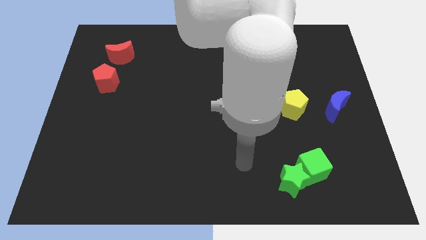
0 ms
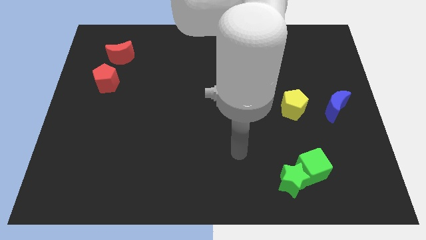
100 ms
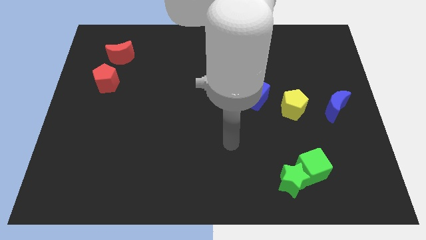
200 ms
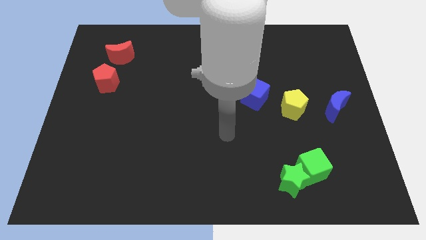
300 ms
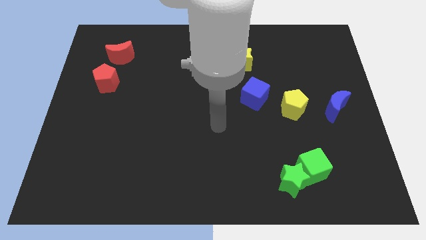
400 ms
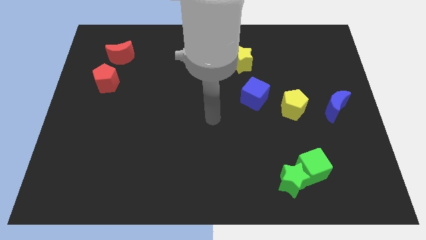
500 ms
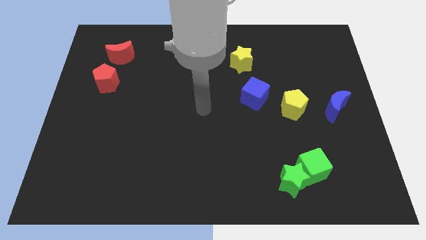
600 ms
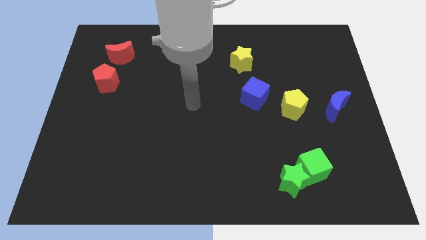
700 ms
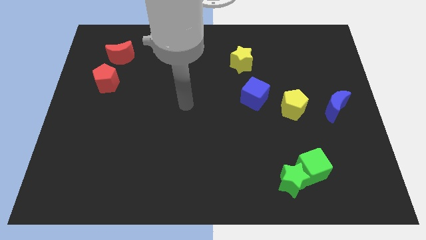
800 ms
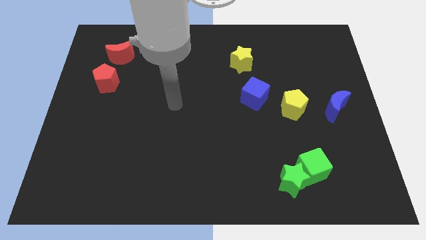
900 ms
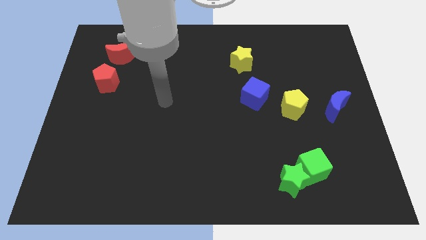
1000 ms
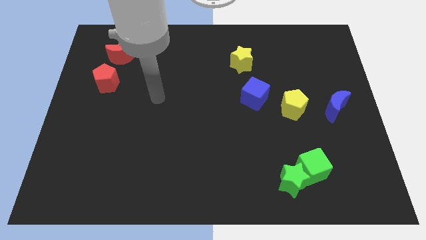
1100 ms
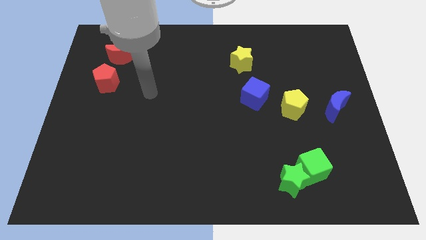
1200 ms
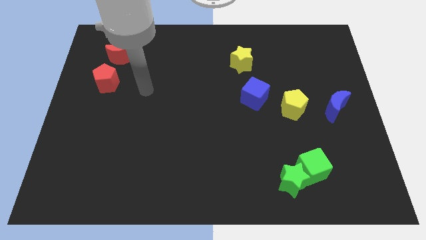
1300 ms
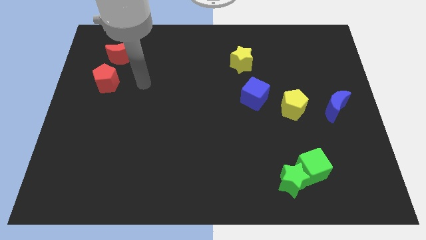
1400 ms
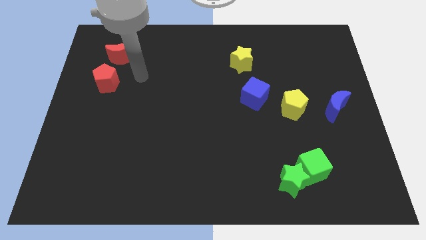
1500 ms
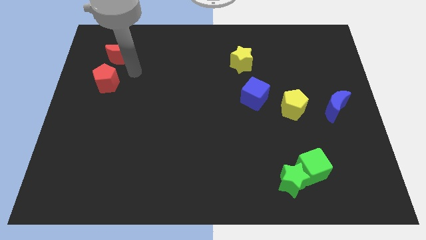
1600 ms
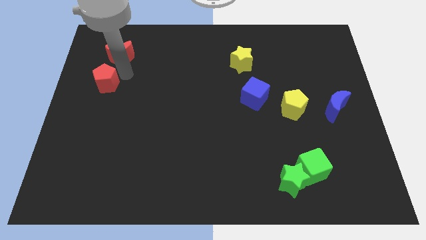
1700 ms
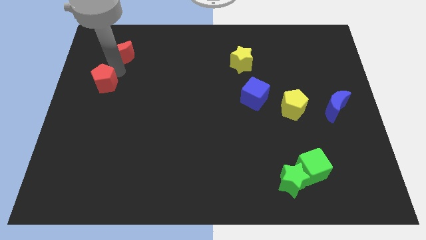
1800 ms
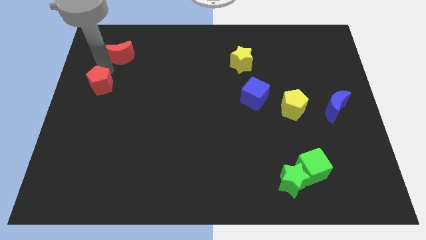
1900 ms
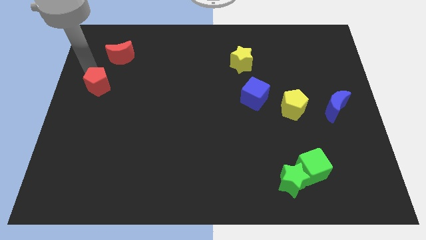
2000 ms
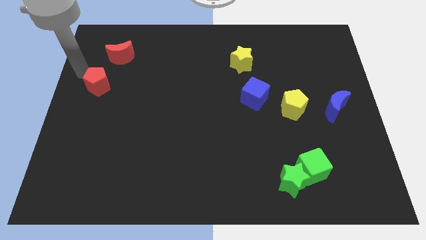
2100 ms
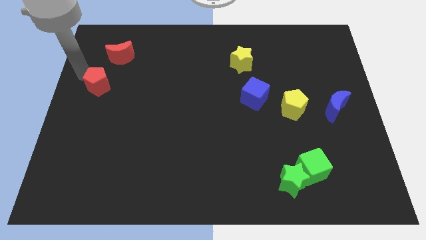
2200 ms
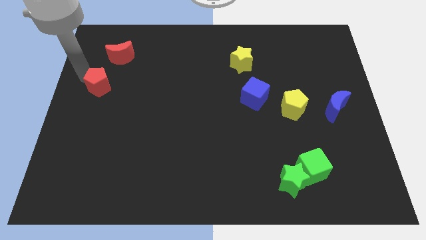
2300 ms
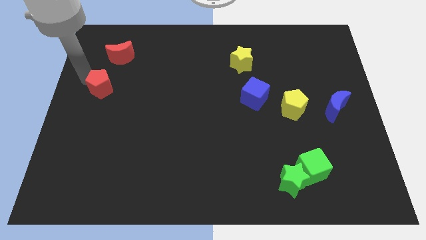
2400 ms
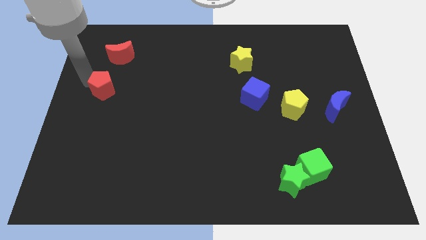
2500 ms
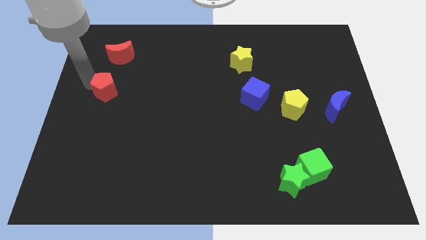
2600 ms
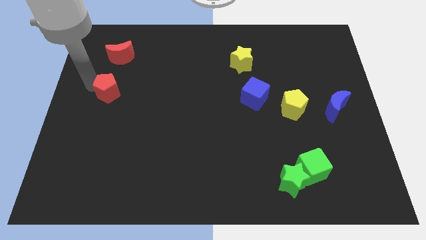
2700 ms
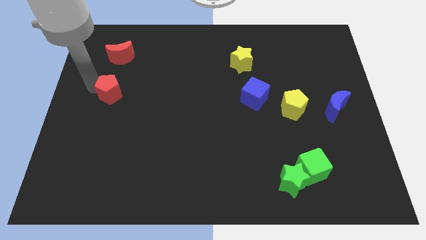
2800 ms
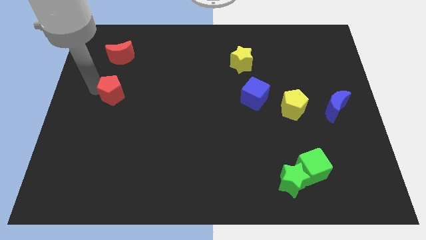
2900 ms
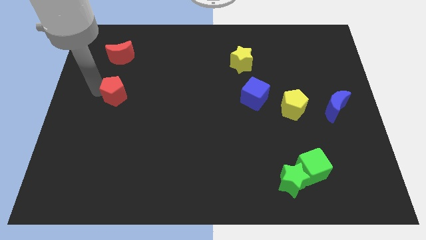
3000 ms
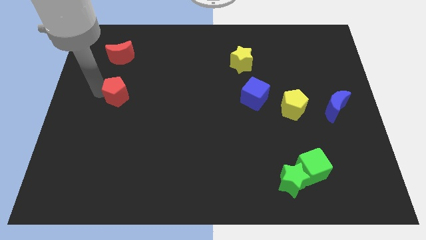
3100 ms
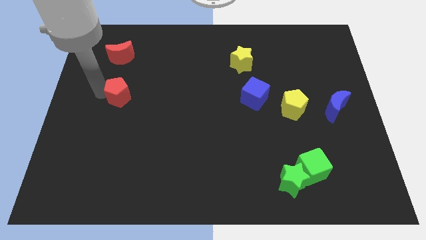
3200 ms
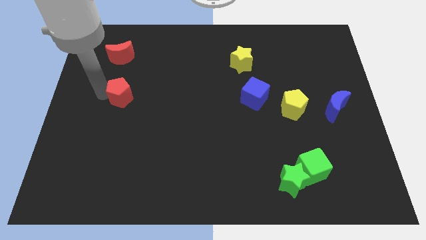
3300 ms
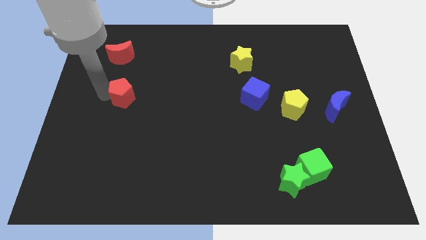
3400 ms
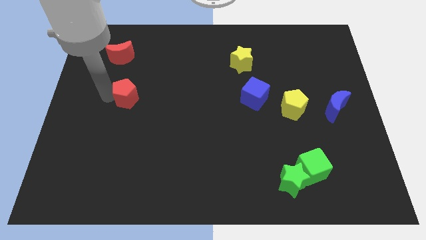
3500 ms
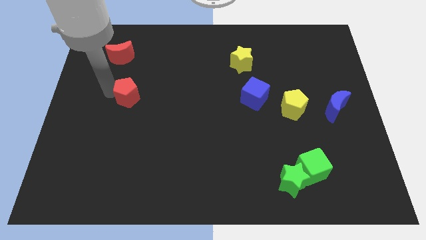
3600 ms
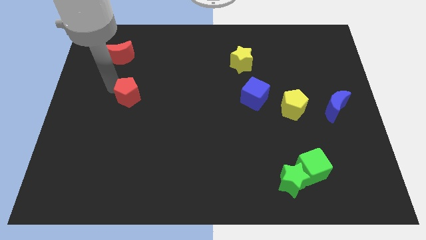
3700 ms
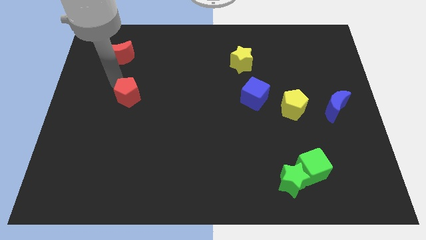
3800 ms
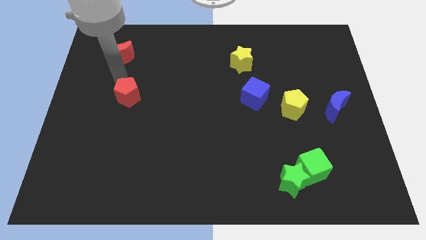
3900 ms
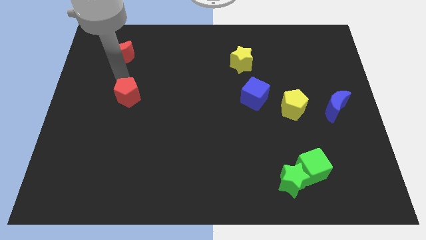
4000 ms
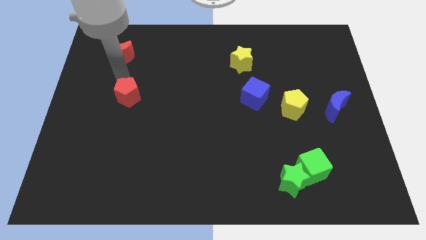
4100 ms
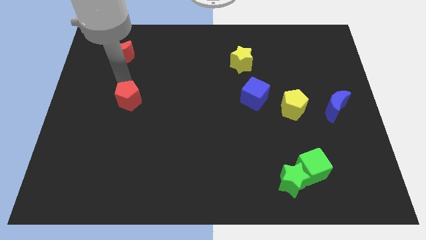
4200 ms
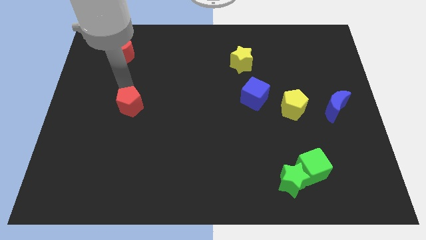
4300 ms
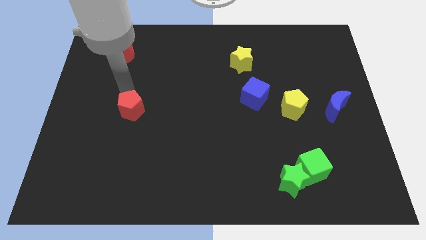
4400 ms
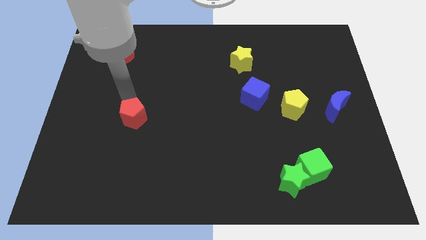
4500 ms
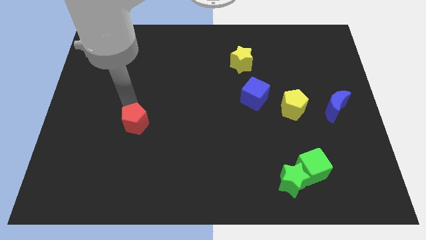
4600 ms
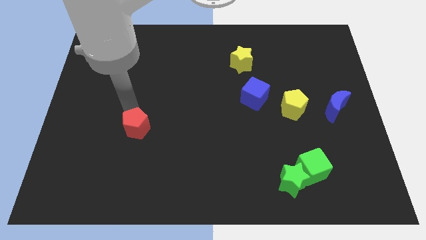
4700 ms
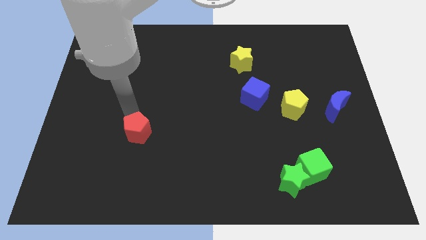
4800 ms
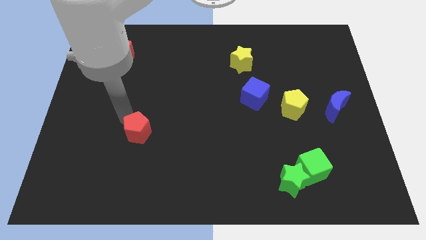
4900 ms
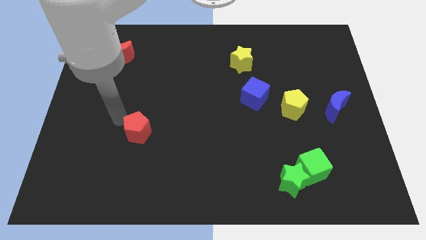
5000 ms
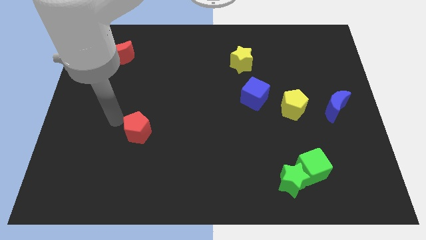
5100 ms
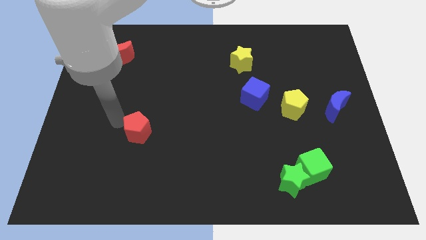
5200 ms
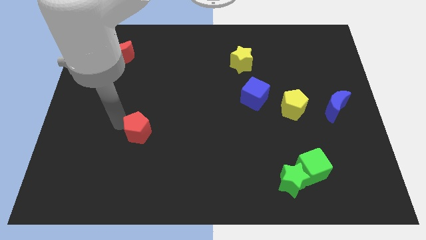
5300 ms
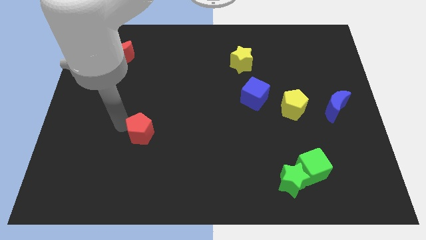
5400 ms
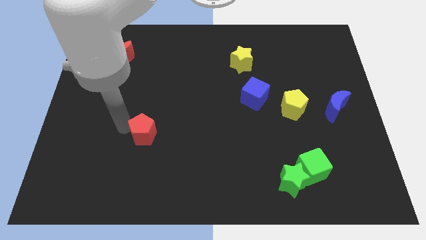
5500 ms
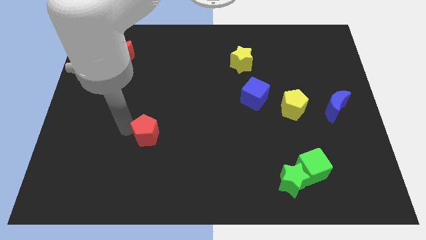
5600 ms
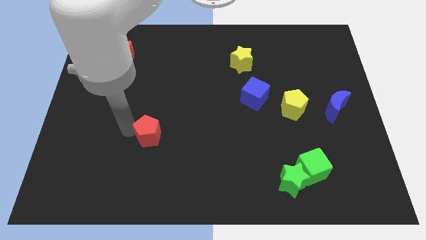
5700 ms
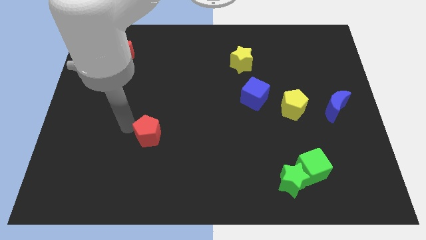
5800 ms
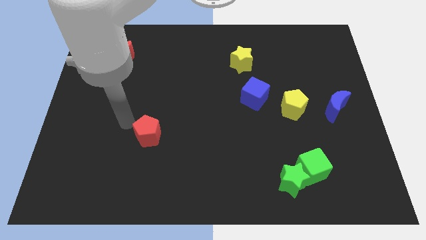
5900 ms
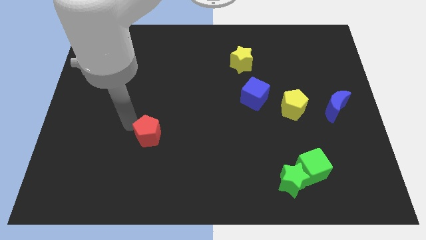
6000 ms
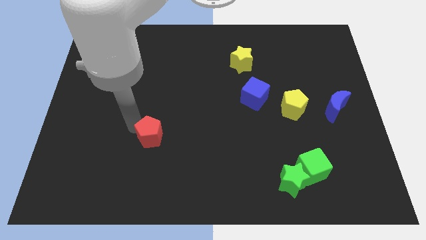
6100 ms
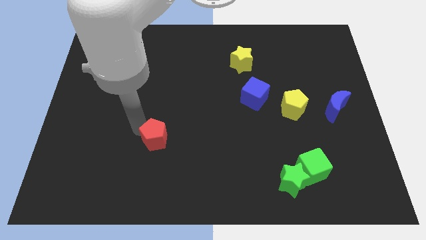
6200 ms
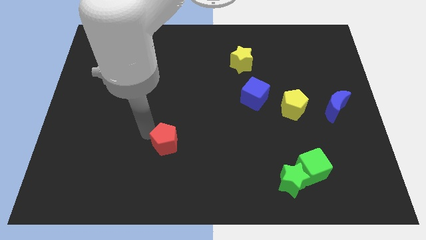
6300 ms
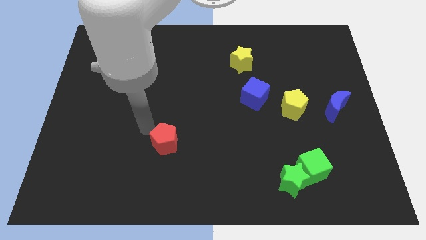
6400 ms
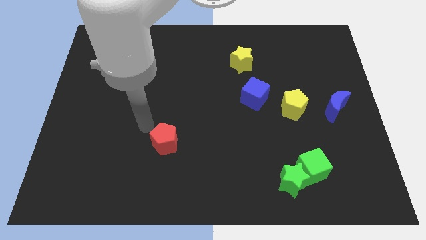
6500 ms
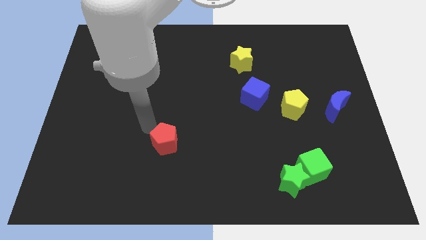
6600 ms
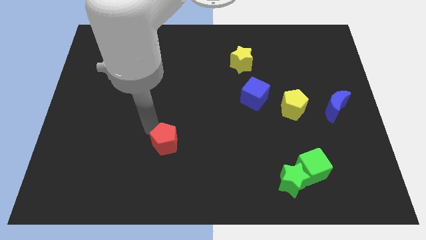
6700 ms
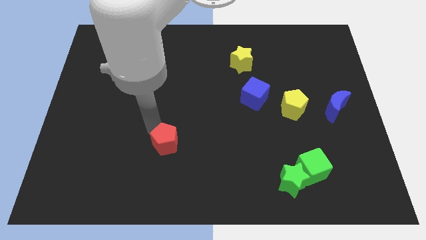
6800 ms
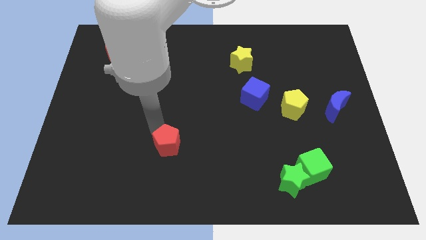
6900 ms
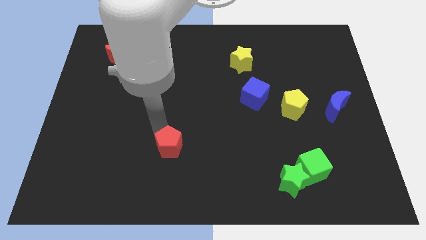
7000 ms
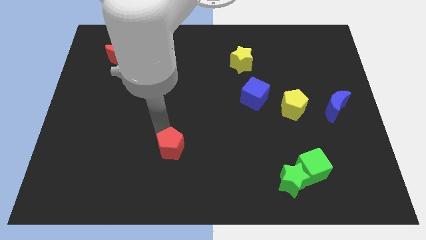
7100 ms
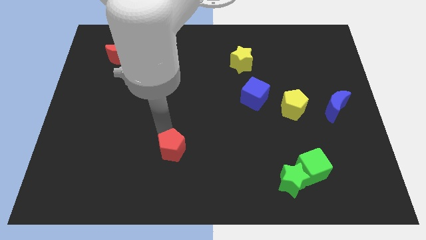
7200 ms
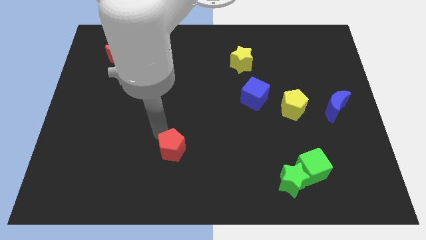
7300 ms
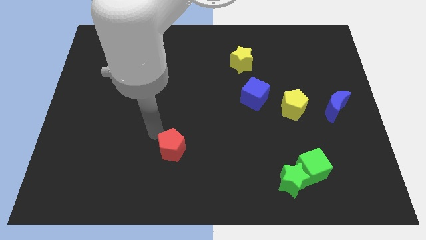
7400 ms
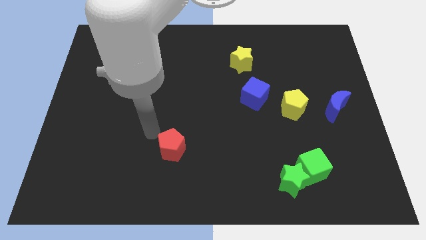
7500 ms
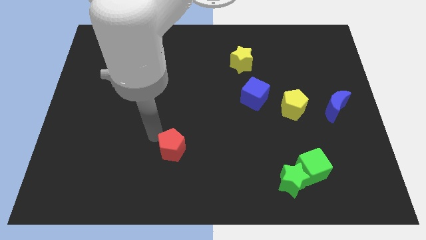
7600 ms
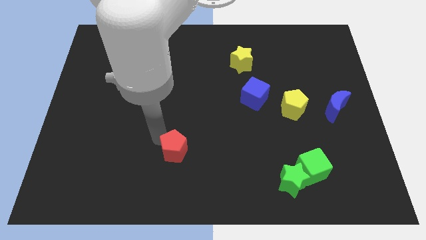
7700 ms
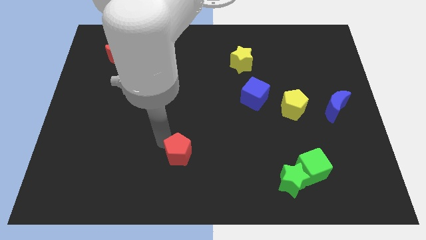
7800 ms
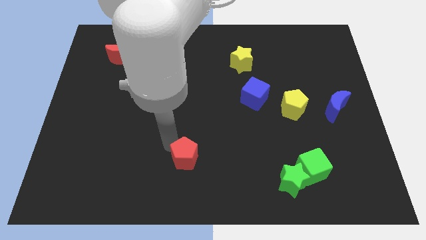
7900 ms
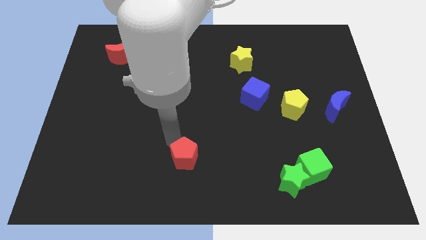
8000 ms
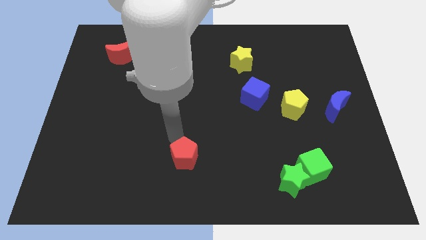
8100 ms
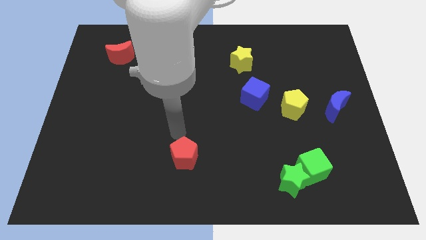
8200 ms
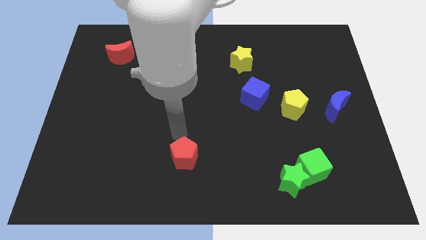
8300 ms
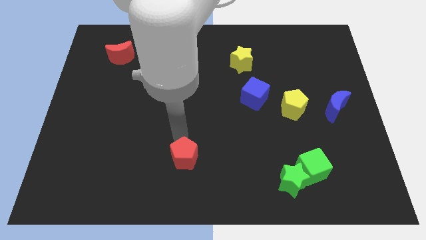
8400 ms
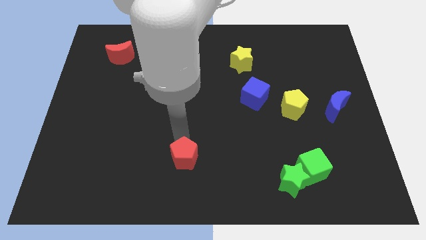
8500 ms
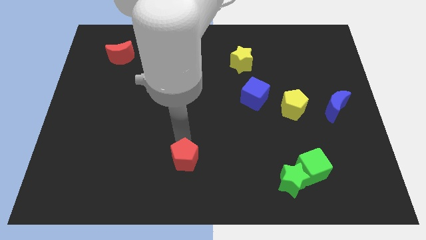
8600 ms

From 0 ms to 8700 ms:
move the red pentagon to the bottom
